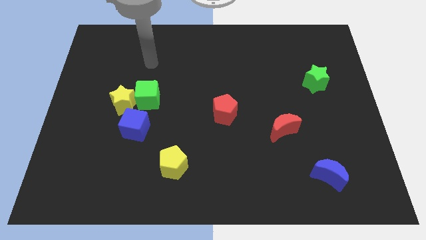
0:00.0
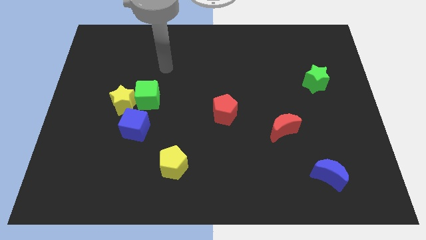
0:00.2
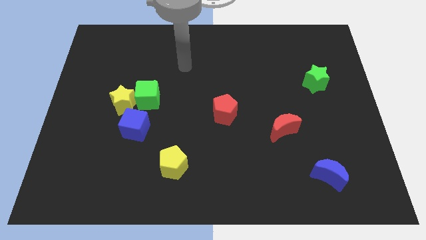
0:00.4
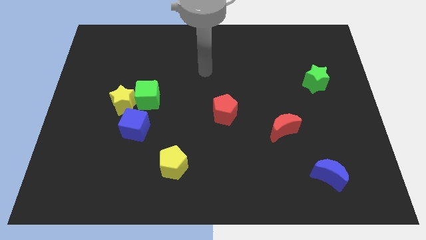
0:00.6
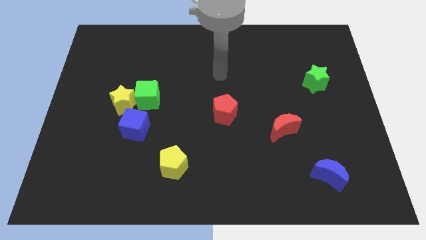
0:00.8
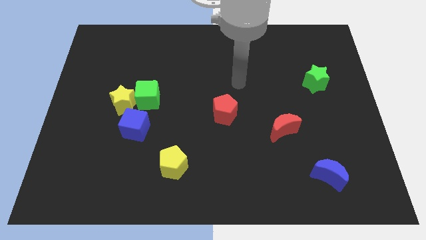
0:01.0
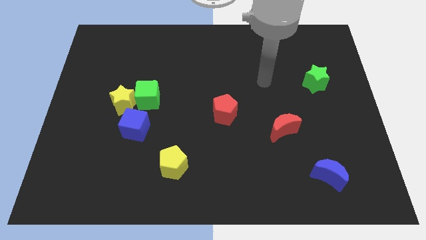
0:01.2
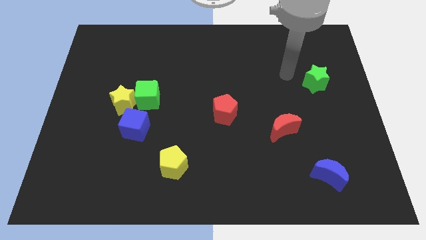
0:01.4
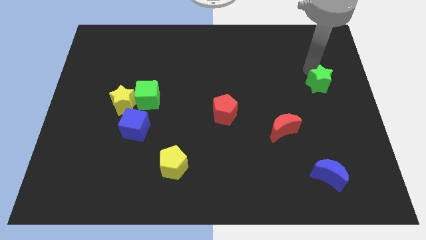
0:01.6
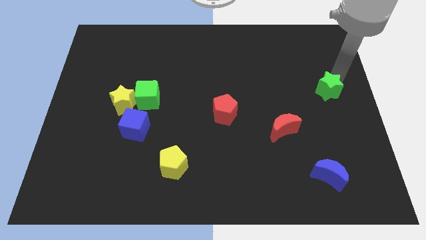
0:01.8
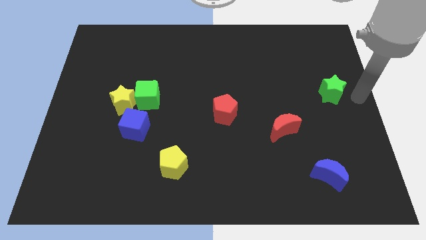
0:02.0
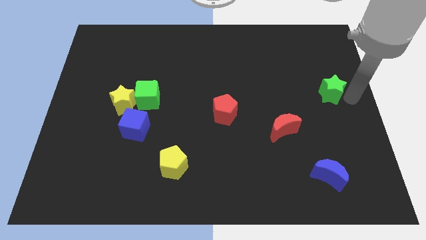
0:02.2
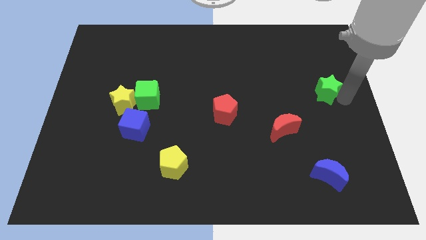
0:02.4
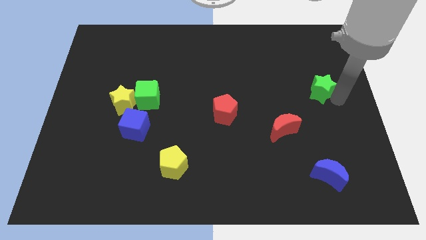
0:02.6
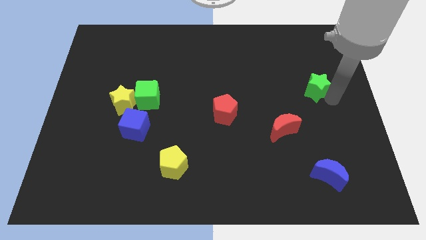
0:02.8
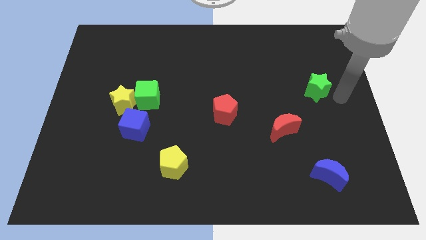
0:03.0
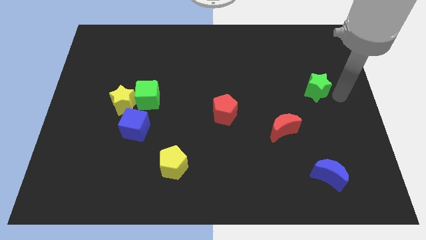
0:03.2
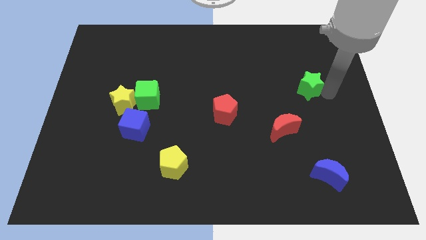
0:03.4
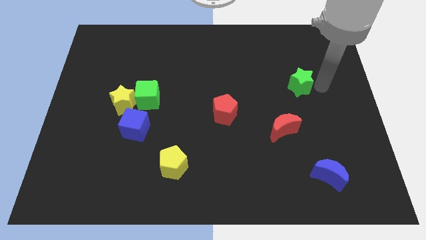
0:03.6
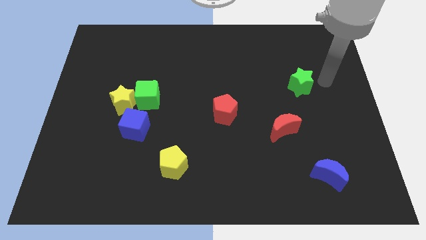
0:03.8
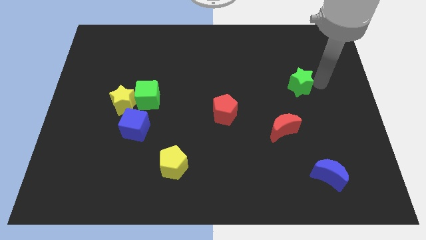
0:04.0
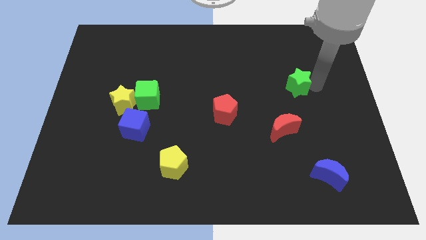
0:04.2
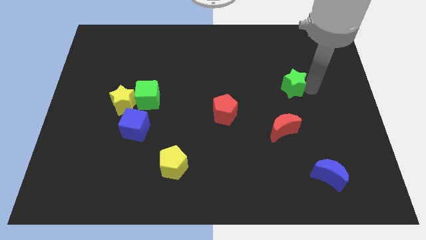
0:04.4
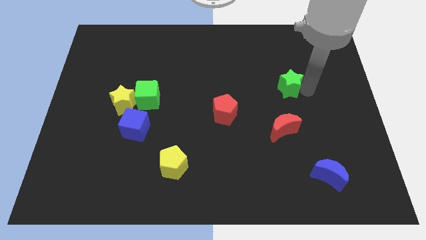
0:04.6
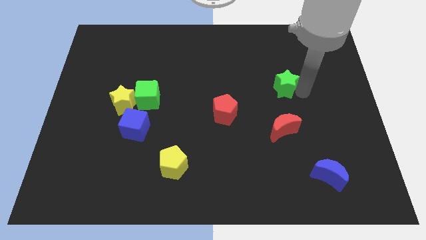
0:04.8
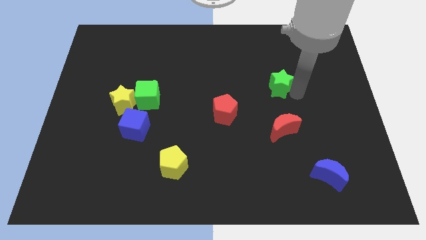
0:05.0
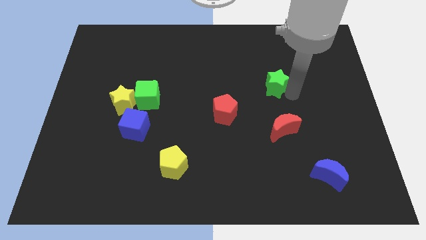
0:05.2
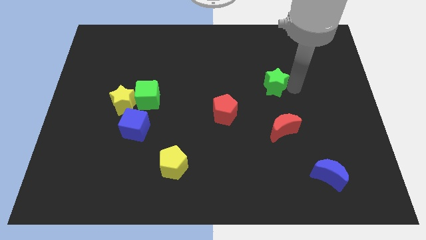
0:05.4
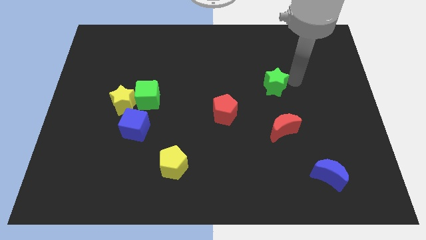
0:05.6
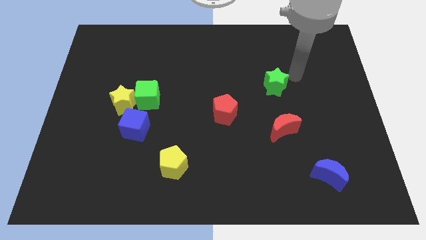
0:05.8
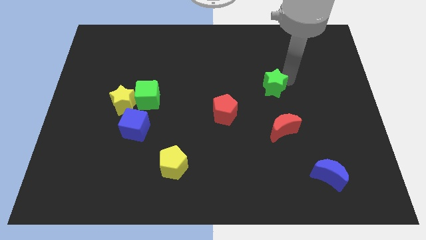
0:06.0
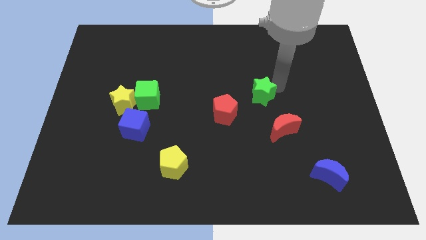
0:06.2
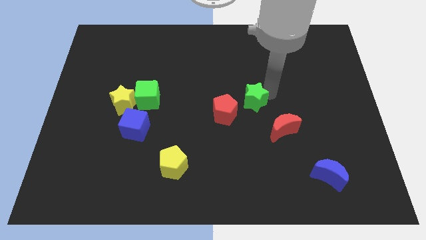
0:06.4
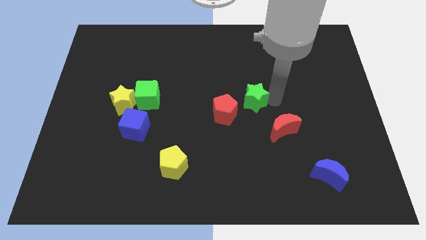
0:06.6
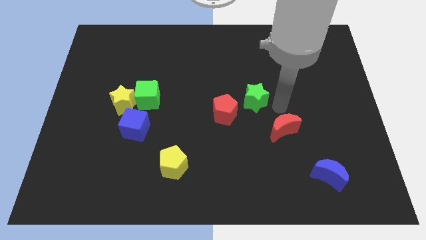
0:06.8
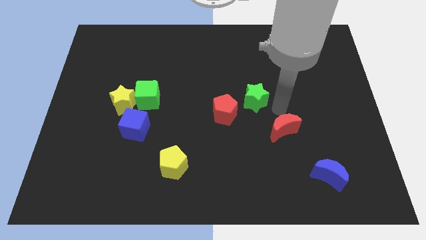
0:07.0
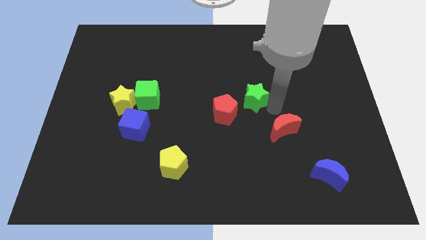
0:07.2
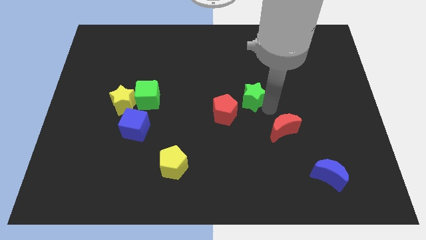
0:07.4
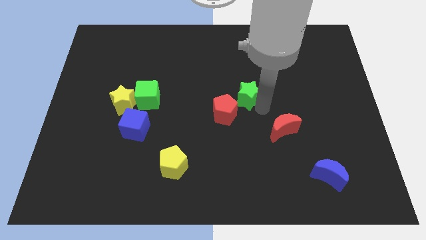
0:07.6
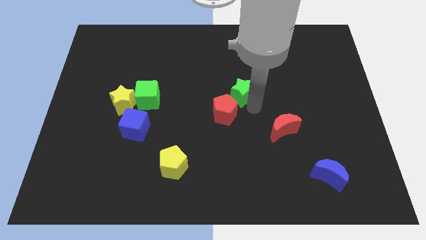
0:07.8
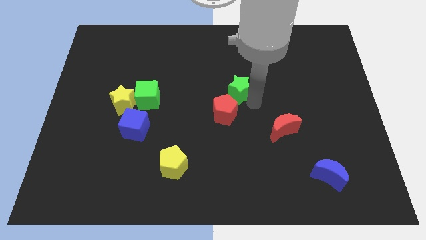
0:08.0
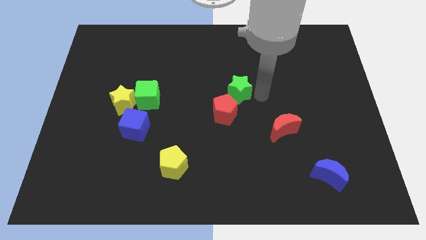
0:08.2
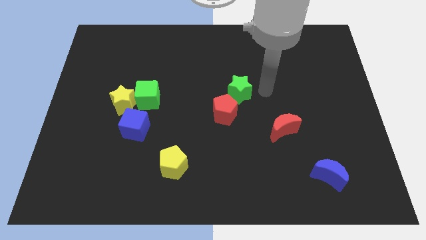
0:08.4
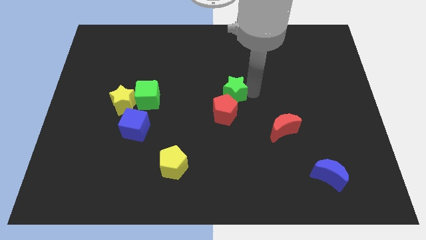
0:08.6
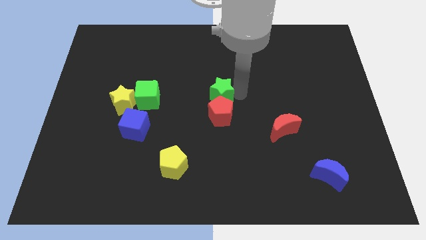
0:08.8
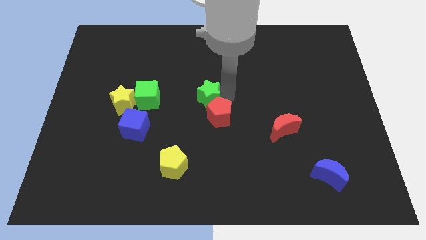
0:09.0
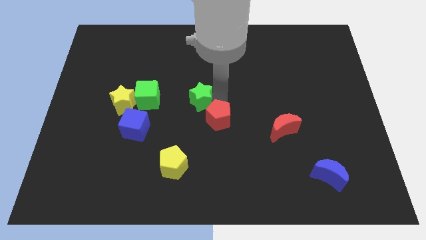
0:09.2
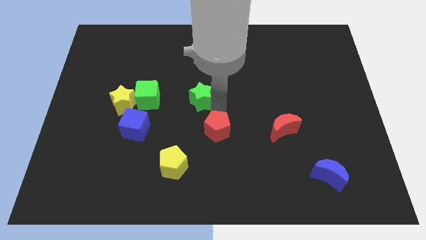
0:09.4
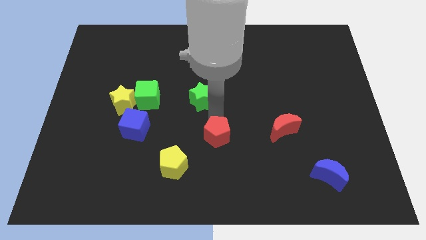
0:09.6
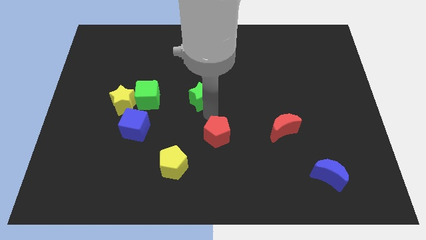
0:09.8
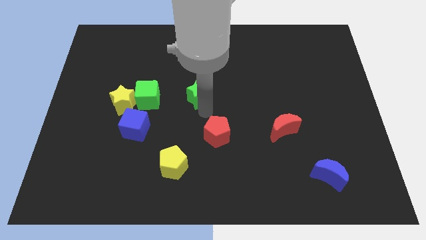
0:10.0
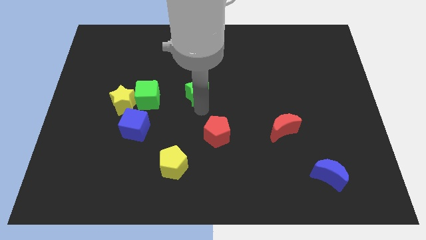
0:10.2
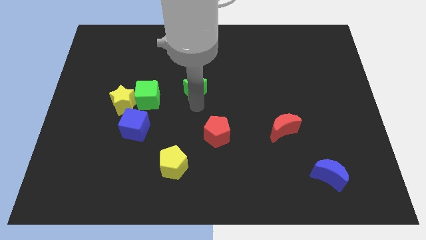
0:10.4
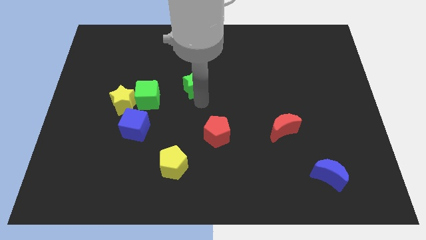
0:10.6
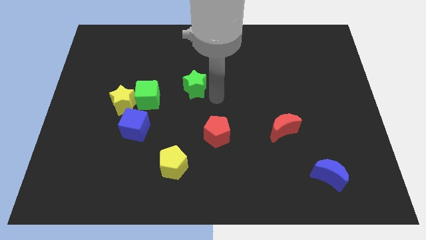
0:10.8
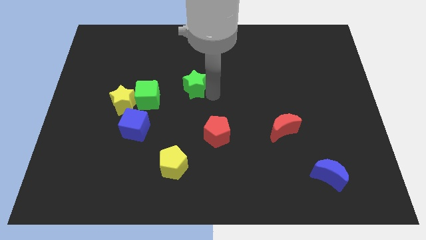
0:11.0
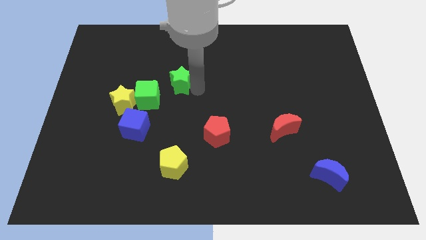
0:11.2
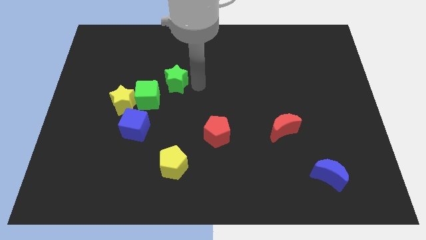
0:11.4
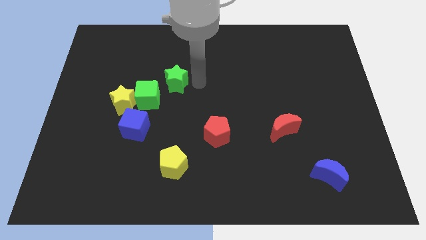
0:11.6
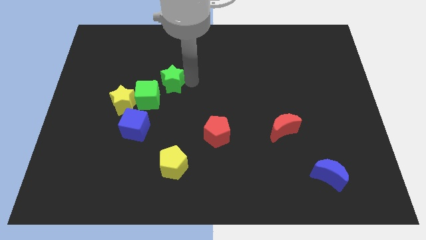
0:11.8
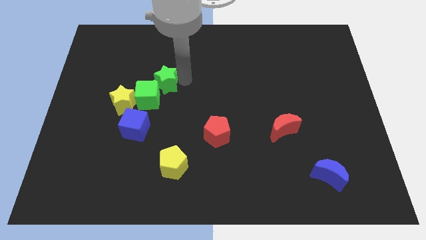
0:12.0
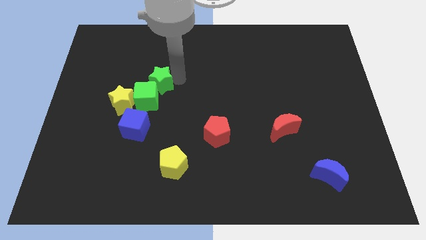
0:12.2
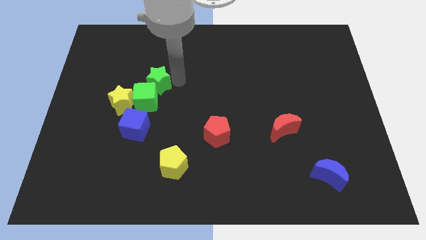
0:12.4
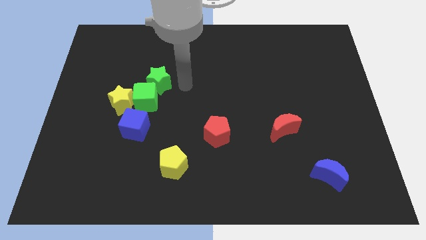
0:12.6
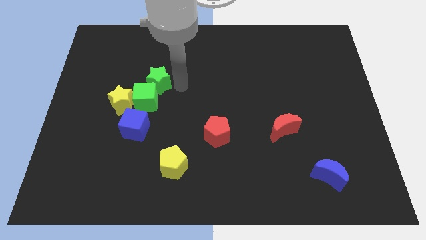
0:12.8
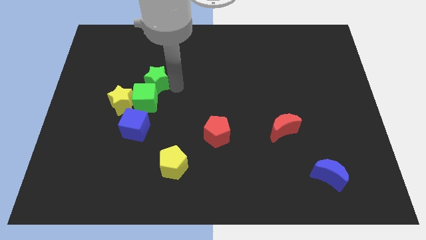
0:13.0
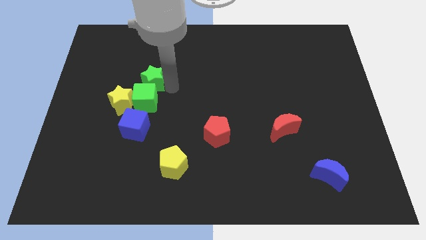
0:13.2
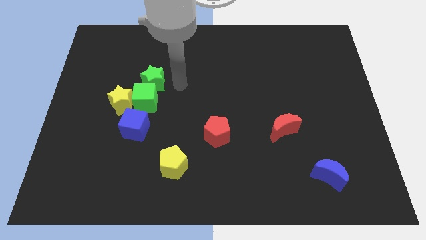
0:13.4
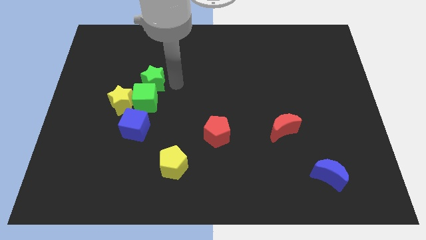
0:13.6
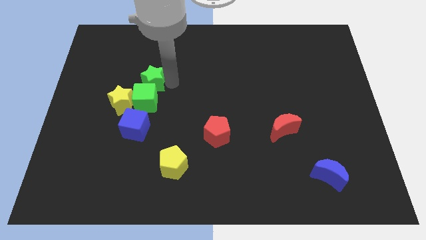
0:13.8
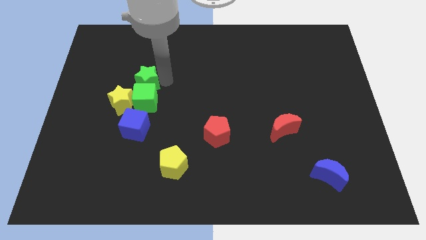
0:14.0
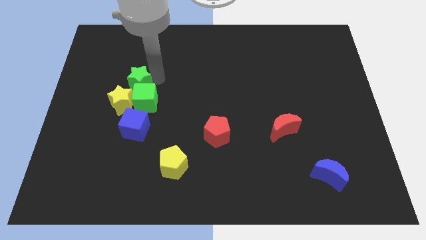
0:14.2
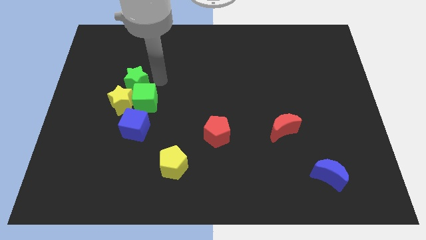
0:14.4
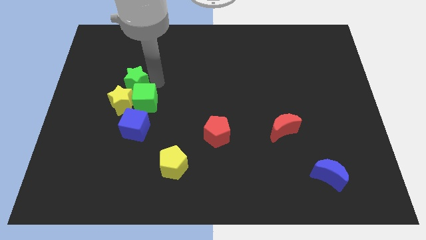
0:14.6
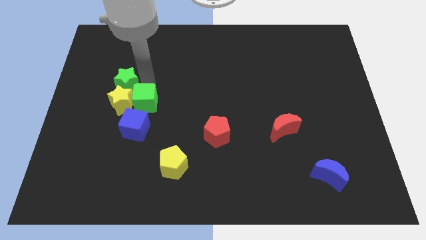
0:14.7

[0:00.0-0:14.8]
push the green star diagonally up and to the left of the yellow star
